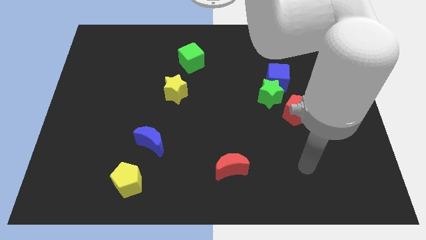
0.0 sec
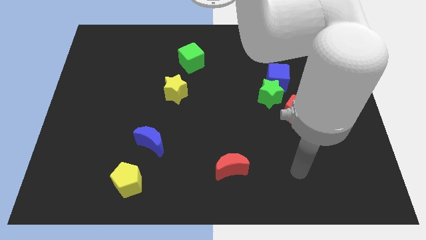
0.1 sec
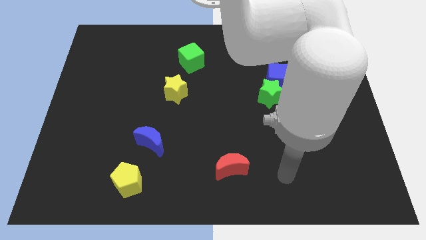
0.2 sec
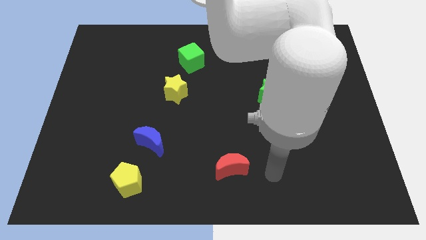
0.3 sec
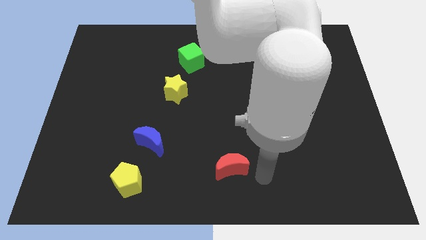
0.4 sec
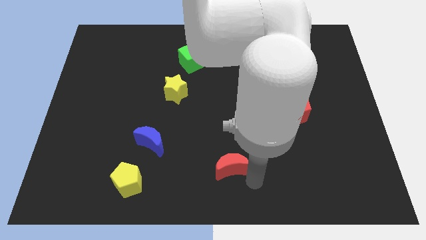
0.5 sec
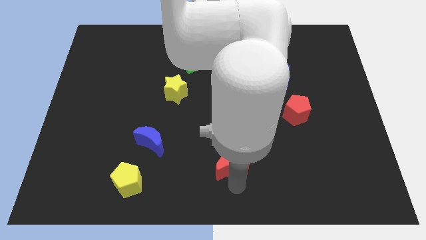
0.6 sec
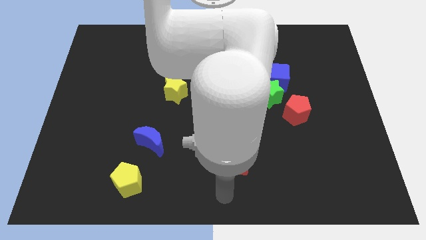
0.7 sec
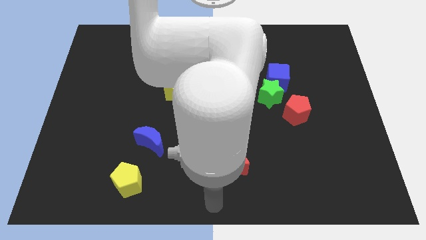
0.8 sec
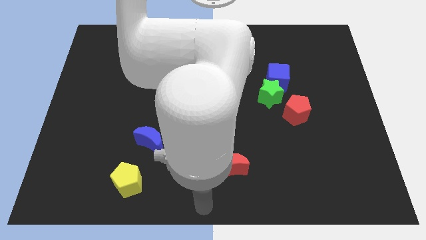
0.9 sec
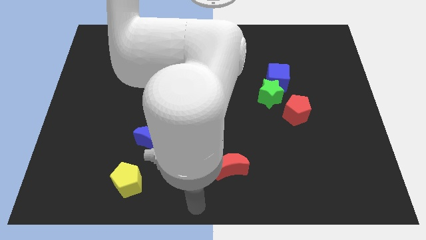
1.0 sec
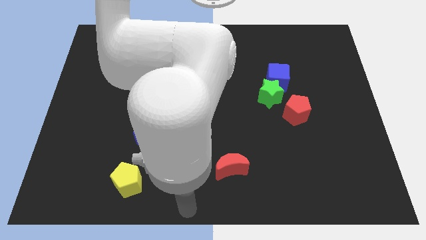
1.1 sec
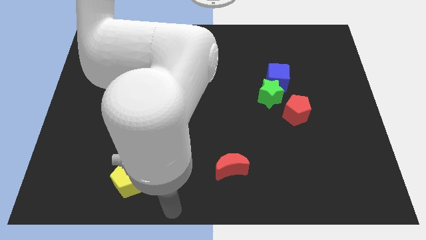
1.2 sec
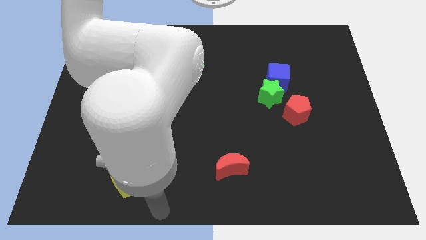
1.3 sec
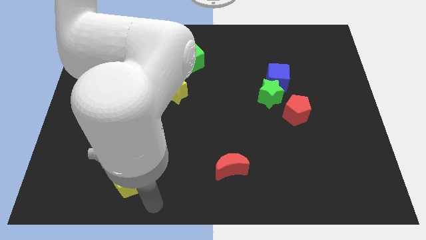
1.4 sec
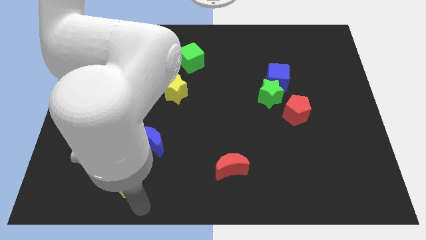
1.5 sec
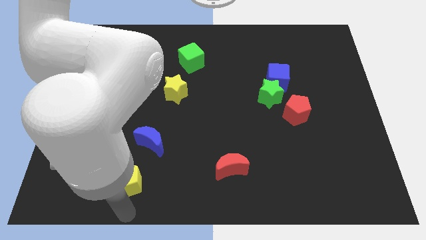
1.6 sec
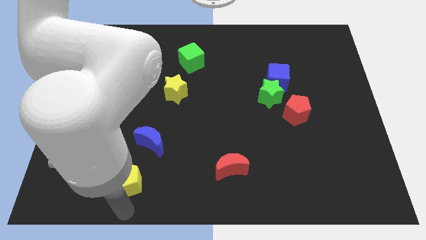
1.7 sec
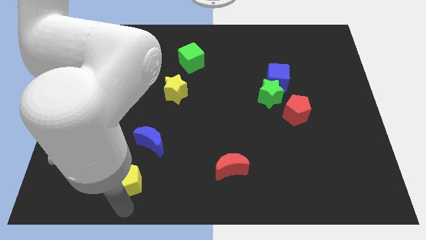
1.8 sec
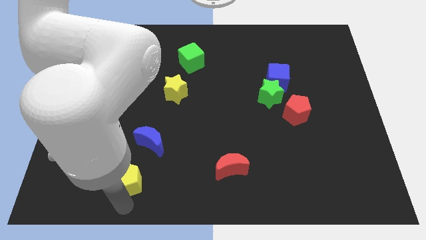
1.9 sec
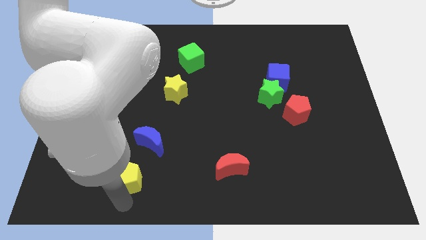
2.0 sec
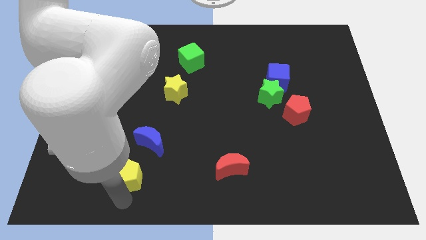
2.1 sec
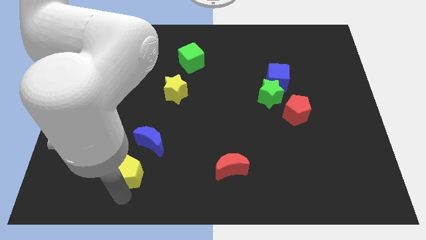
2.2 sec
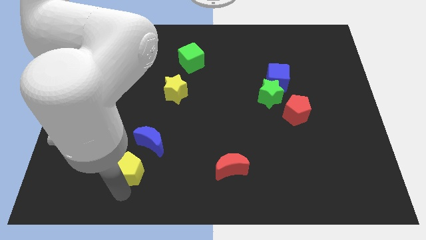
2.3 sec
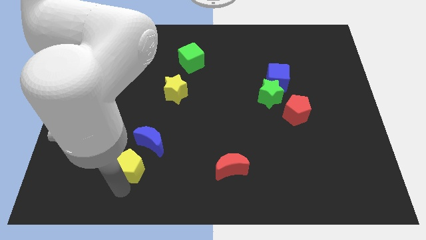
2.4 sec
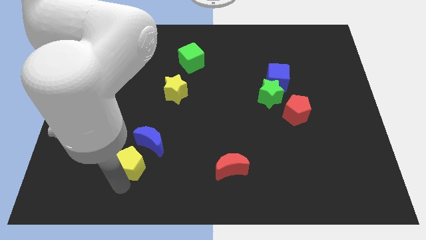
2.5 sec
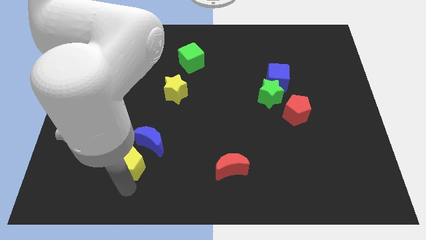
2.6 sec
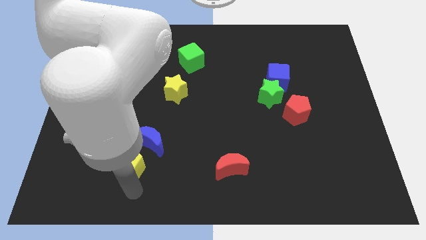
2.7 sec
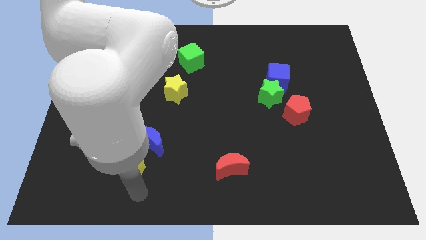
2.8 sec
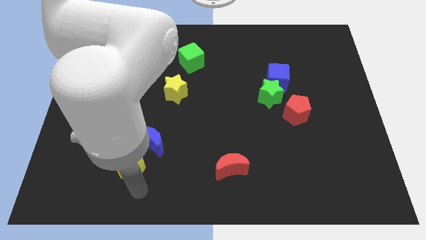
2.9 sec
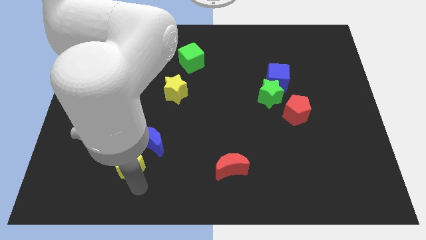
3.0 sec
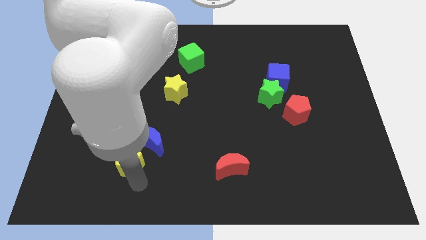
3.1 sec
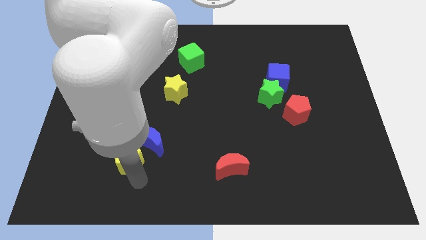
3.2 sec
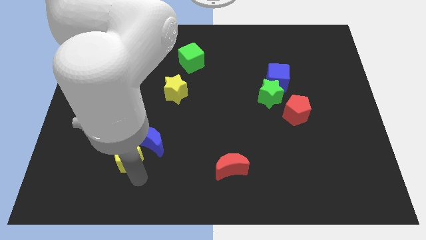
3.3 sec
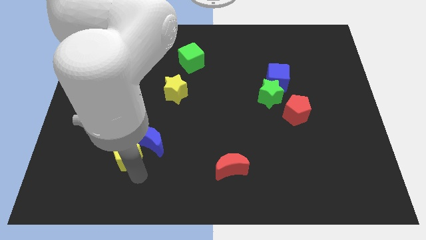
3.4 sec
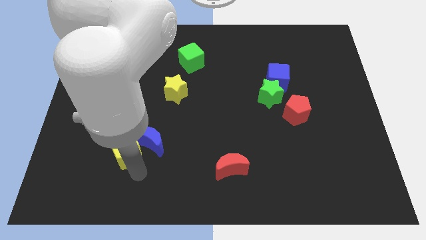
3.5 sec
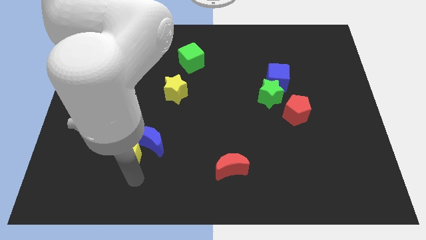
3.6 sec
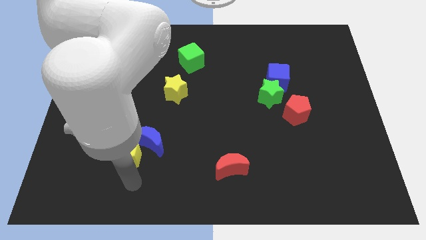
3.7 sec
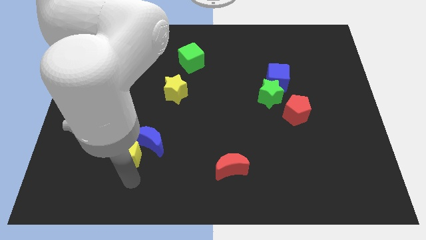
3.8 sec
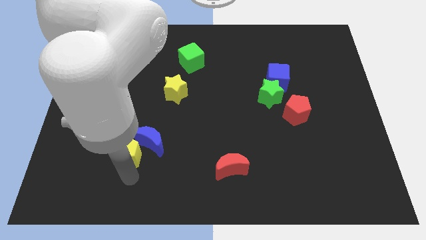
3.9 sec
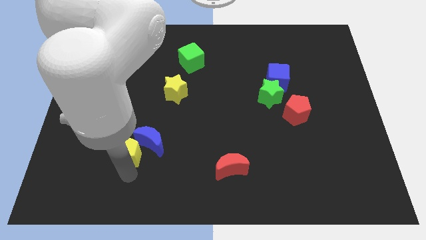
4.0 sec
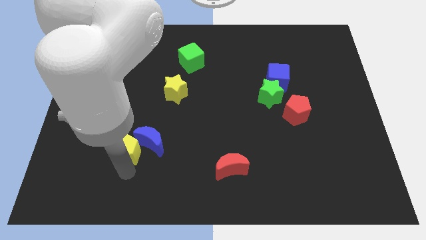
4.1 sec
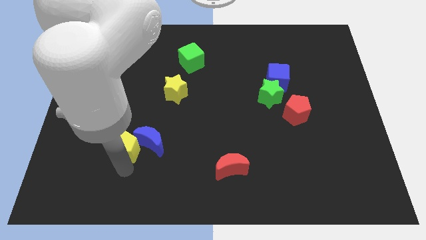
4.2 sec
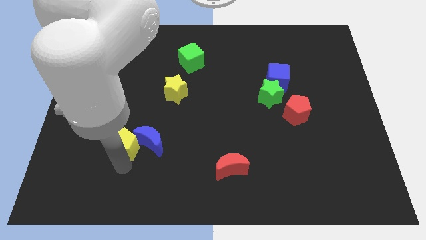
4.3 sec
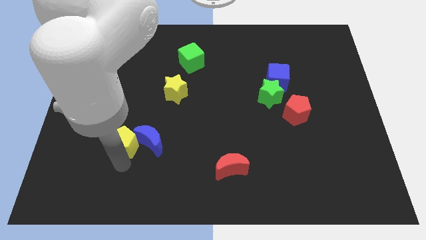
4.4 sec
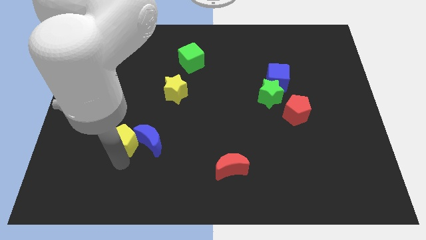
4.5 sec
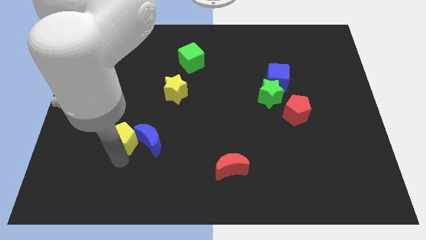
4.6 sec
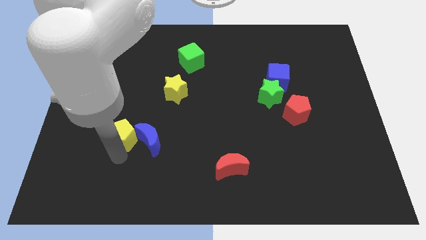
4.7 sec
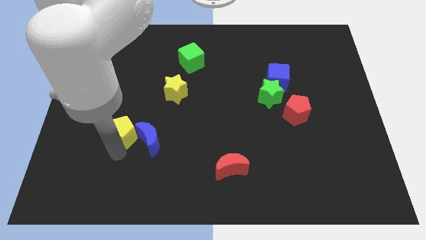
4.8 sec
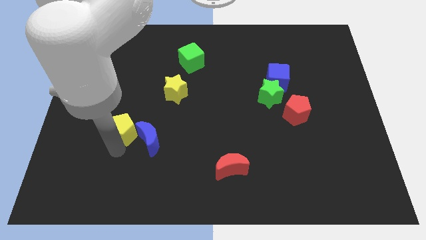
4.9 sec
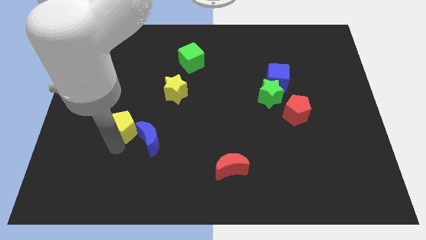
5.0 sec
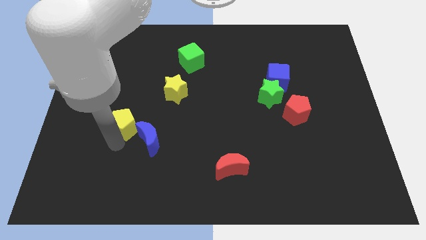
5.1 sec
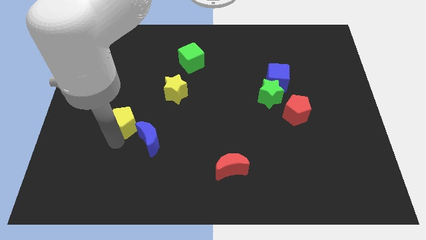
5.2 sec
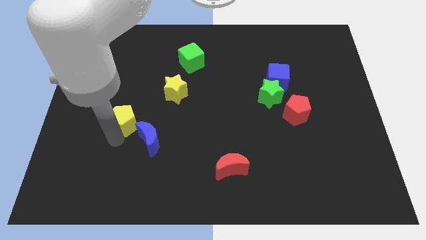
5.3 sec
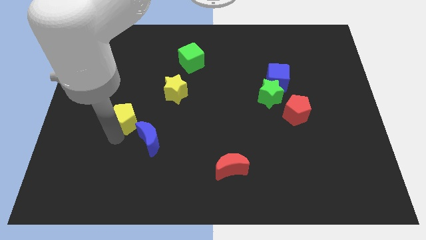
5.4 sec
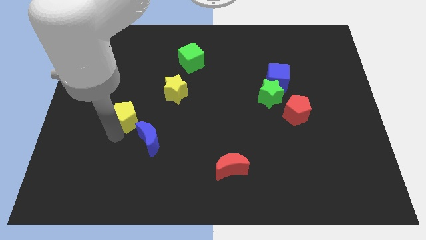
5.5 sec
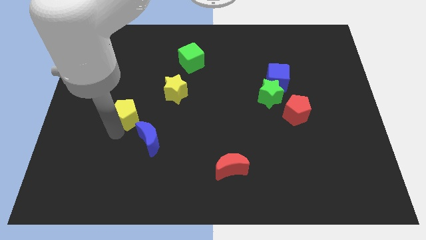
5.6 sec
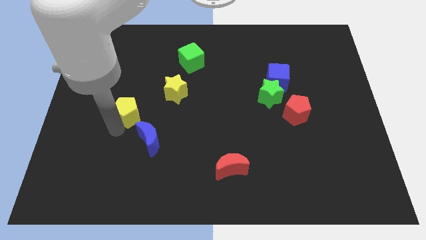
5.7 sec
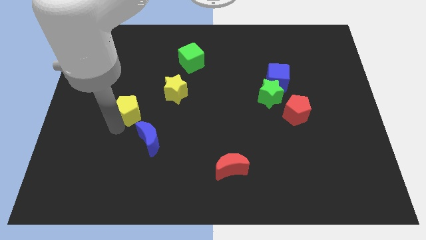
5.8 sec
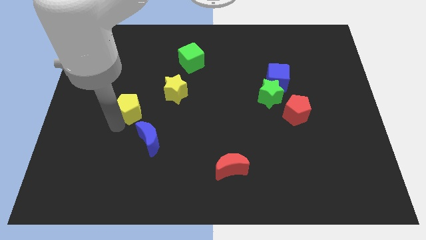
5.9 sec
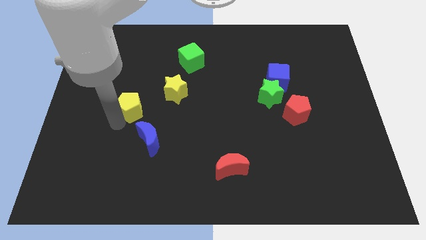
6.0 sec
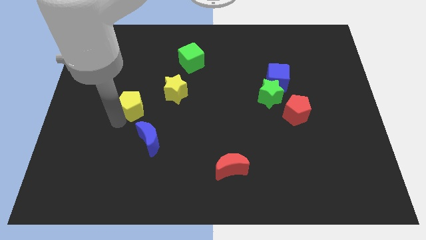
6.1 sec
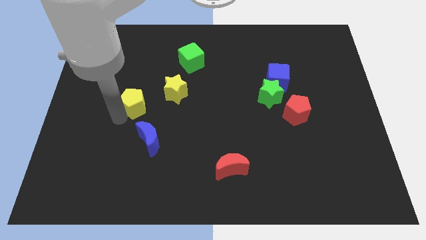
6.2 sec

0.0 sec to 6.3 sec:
push the yellow pentagon upwards

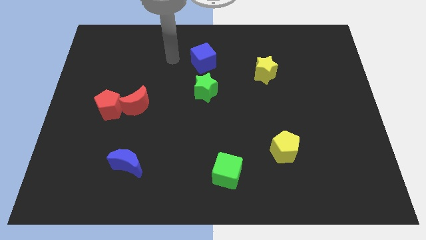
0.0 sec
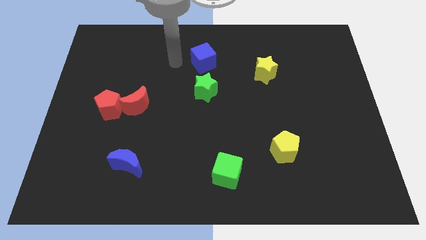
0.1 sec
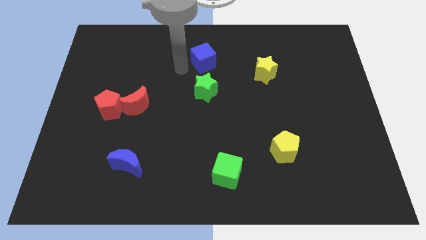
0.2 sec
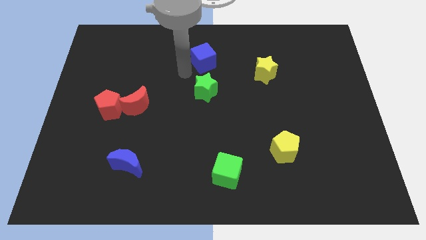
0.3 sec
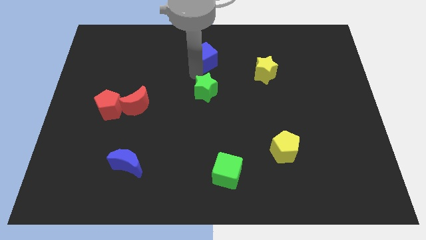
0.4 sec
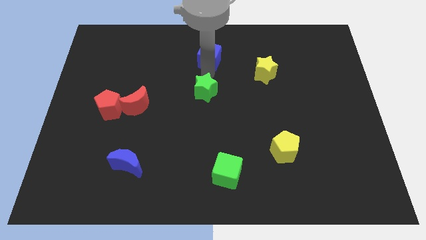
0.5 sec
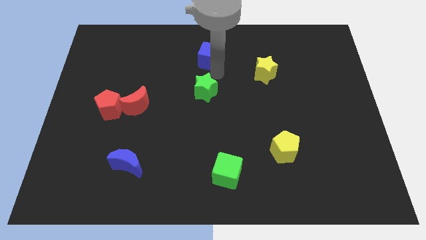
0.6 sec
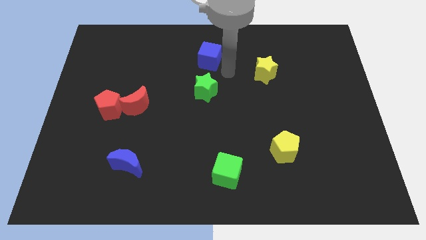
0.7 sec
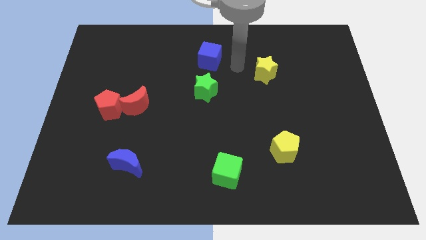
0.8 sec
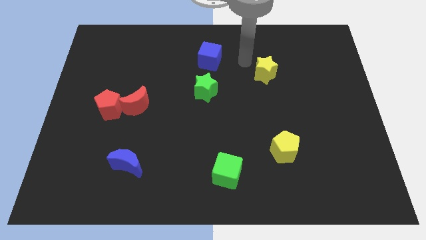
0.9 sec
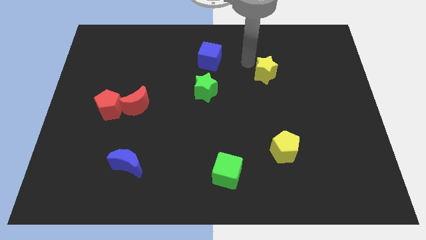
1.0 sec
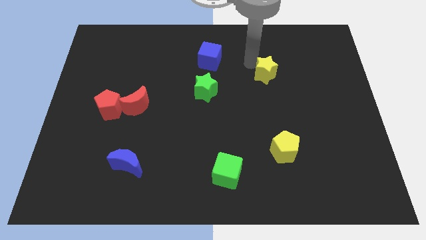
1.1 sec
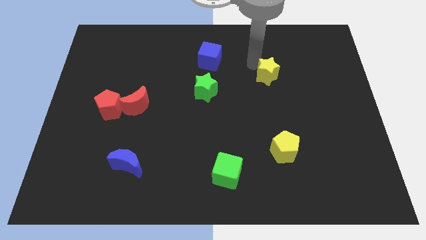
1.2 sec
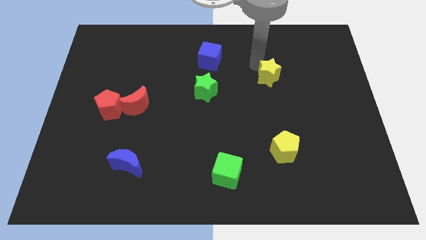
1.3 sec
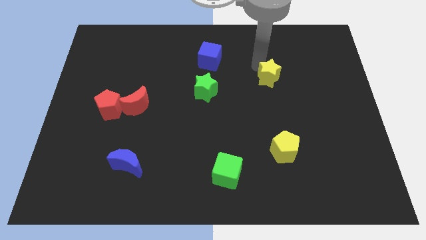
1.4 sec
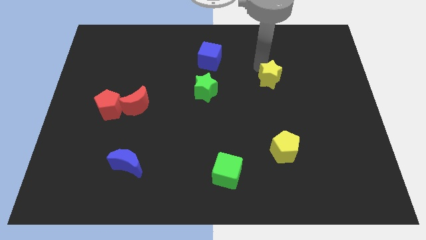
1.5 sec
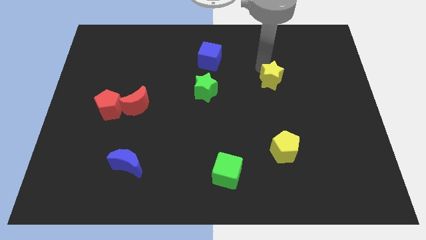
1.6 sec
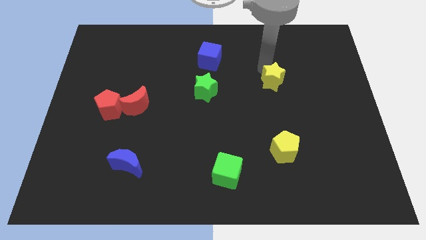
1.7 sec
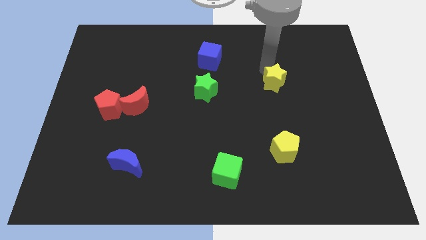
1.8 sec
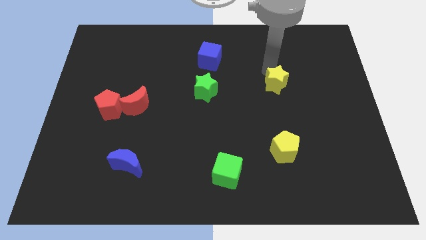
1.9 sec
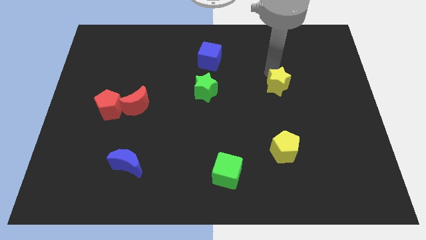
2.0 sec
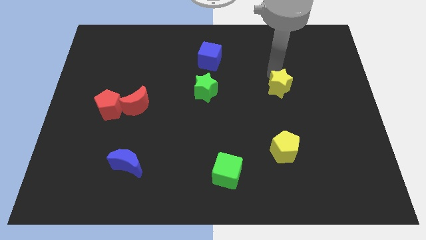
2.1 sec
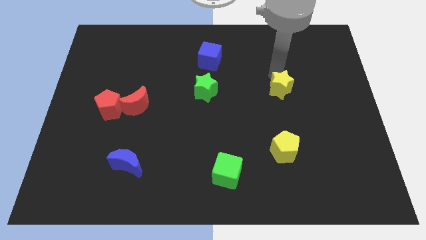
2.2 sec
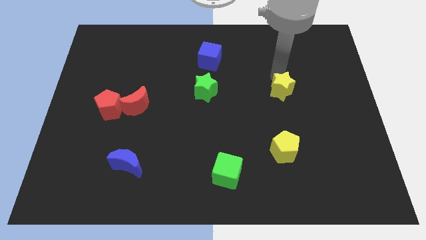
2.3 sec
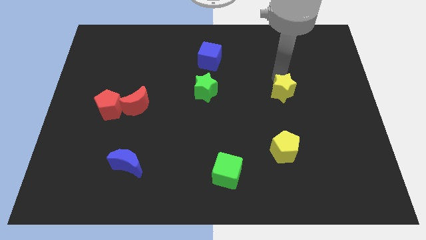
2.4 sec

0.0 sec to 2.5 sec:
slide the yellow star downwards and then right slightly
